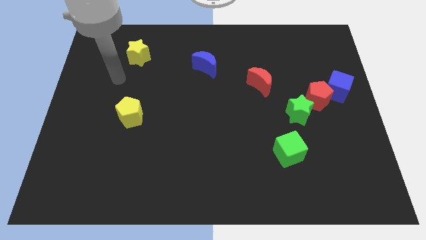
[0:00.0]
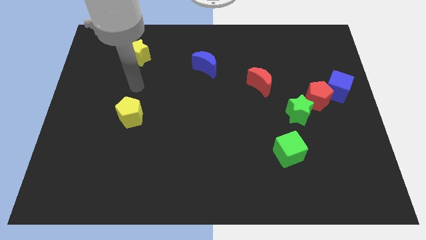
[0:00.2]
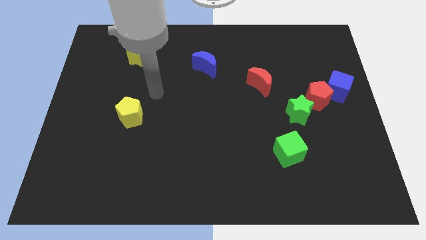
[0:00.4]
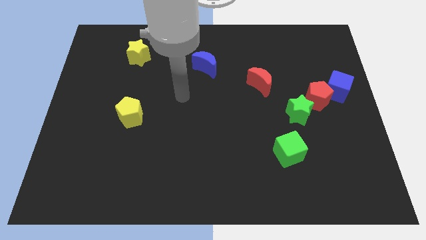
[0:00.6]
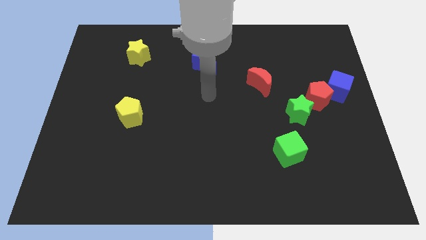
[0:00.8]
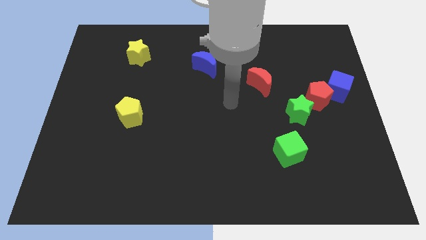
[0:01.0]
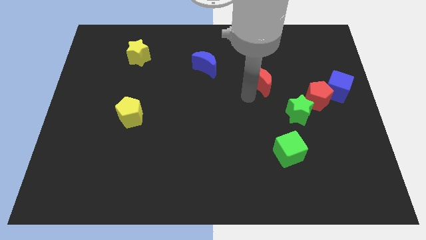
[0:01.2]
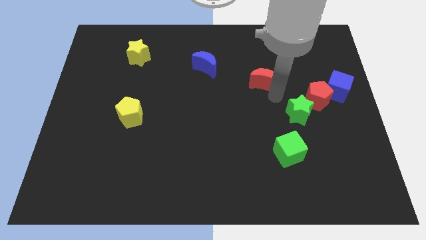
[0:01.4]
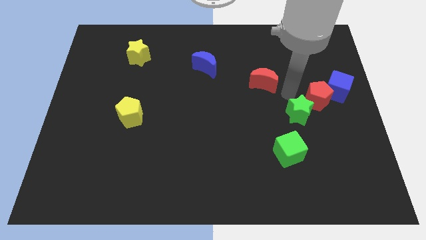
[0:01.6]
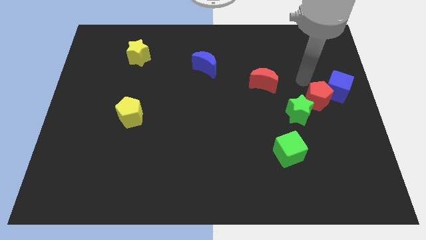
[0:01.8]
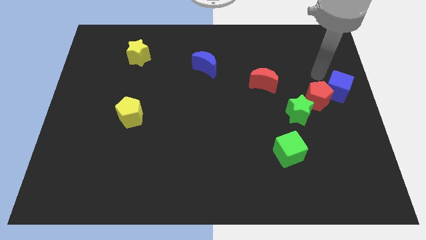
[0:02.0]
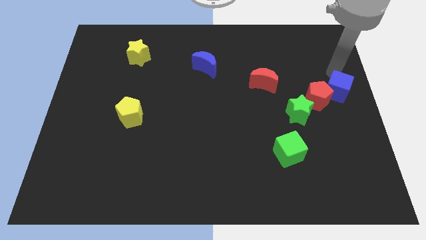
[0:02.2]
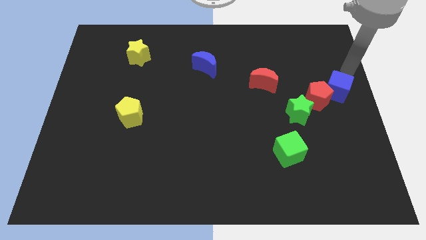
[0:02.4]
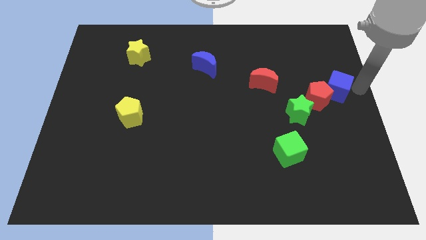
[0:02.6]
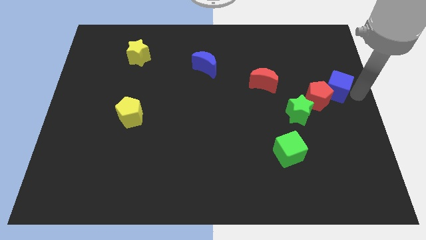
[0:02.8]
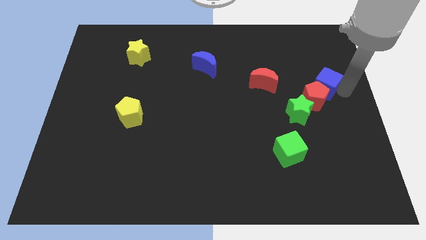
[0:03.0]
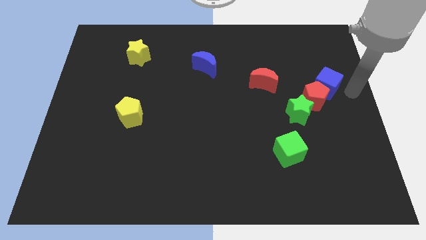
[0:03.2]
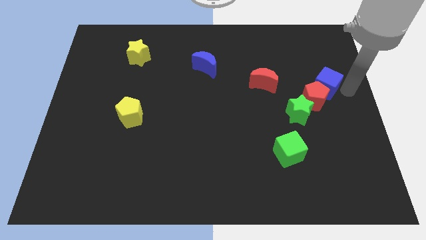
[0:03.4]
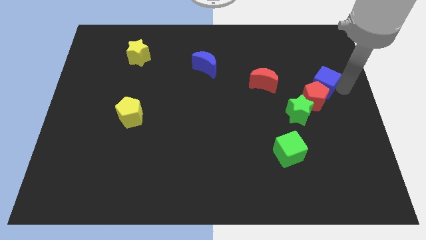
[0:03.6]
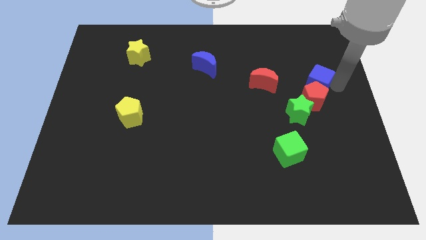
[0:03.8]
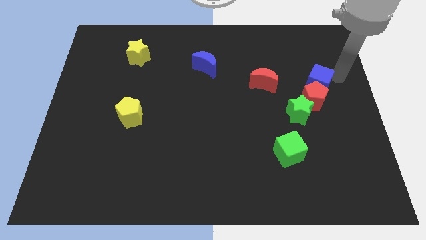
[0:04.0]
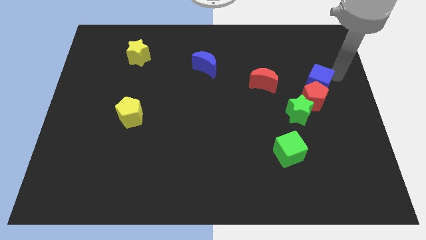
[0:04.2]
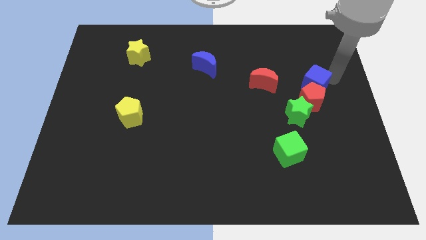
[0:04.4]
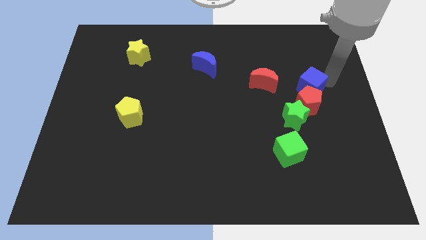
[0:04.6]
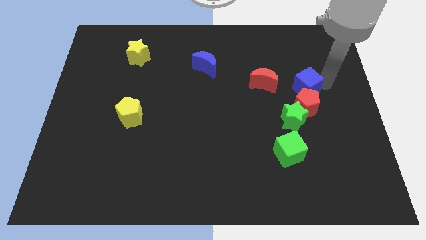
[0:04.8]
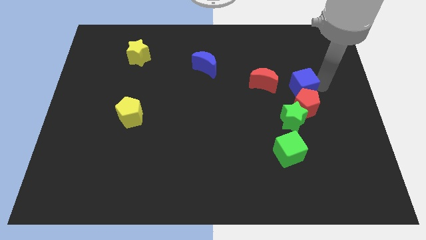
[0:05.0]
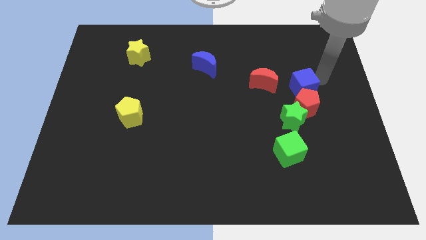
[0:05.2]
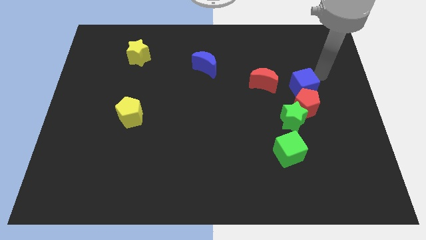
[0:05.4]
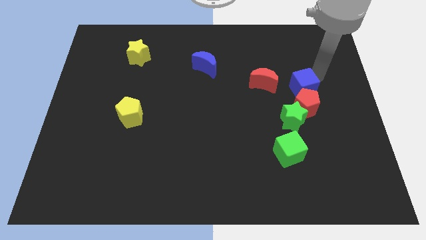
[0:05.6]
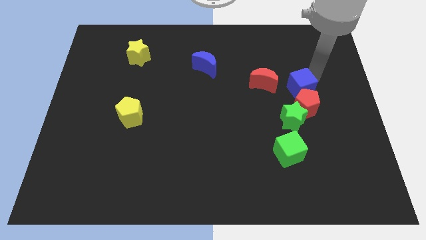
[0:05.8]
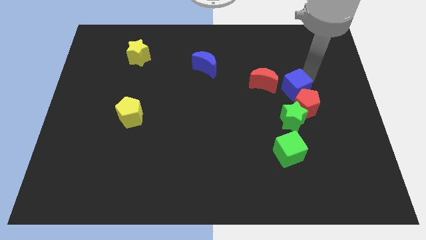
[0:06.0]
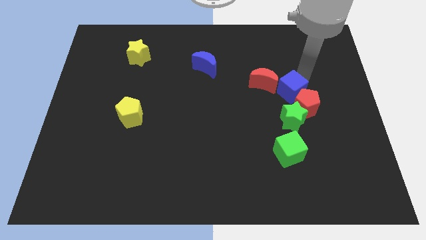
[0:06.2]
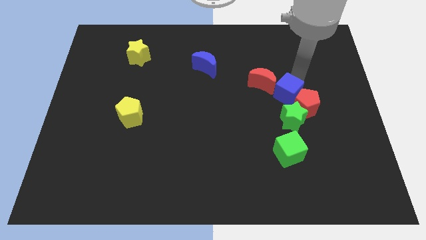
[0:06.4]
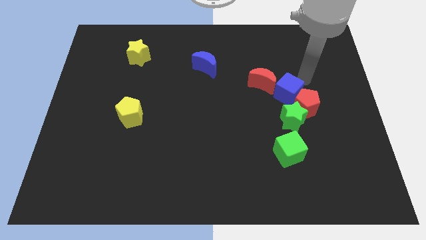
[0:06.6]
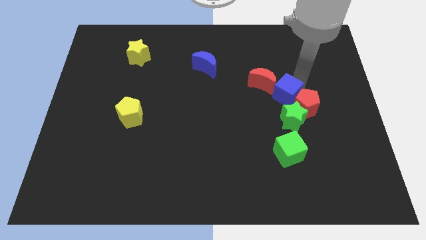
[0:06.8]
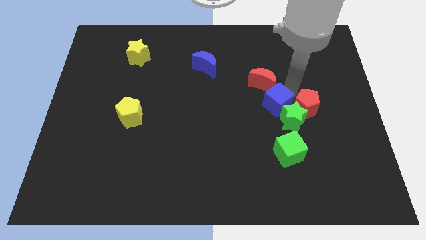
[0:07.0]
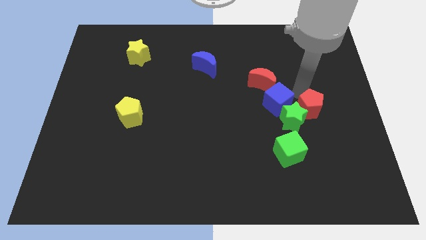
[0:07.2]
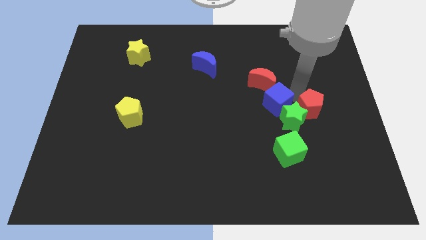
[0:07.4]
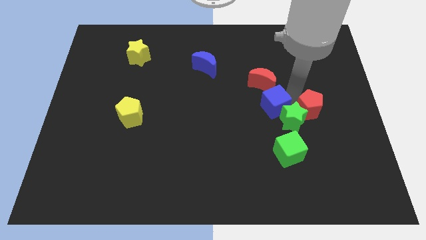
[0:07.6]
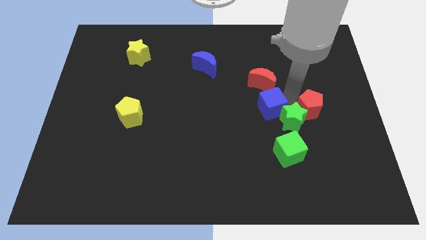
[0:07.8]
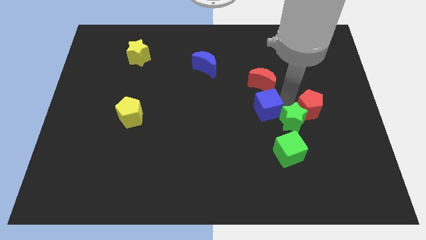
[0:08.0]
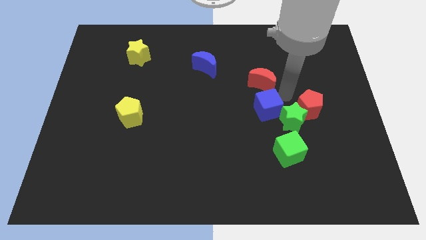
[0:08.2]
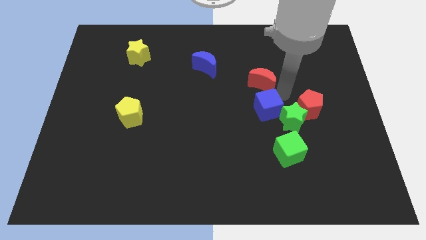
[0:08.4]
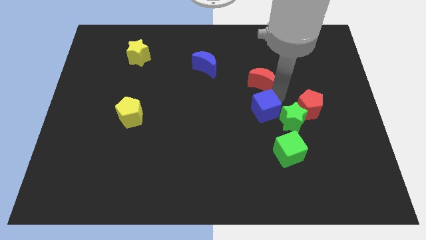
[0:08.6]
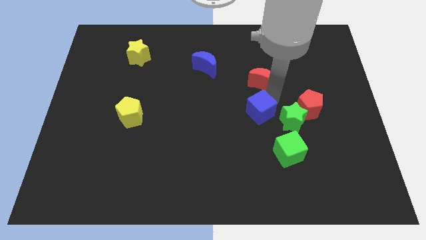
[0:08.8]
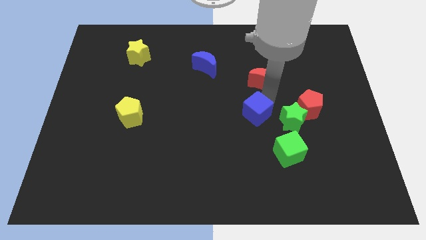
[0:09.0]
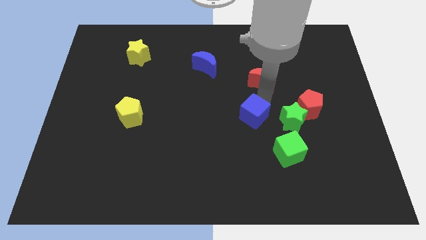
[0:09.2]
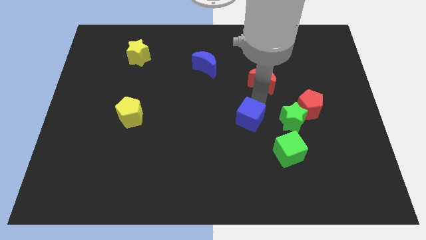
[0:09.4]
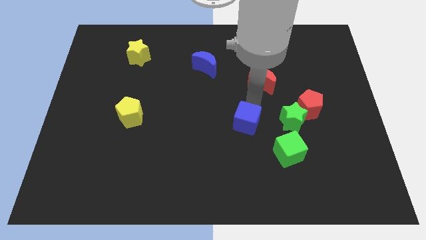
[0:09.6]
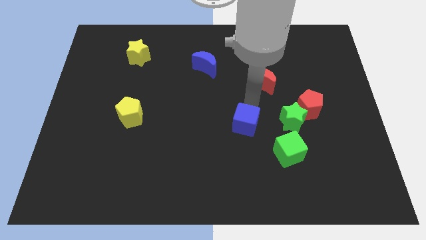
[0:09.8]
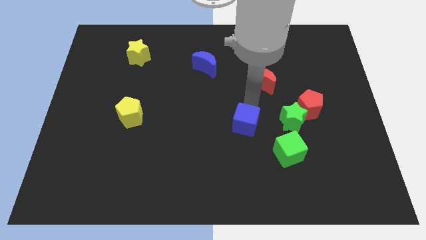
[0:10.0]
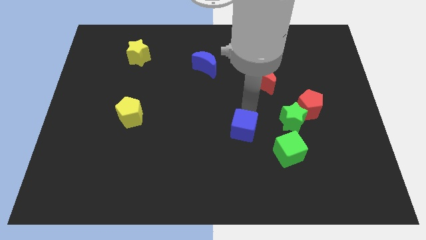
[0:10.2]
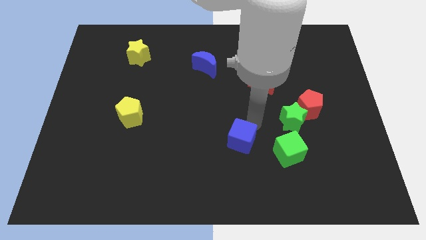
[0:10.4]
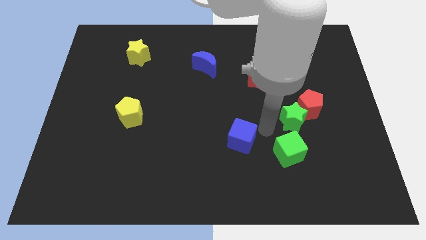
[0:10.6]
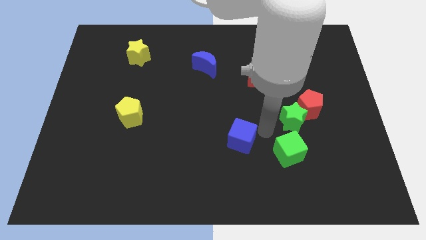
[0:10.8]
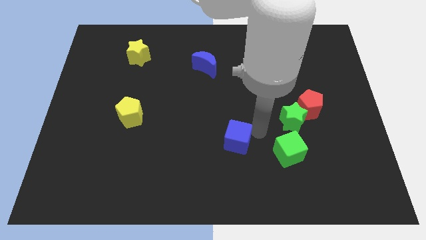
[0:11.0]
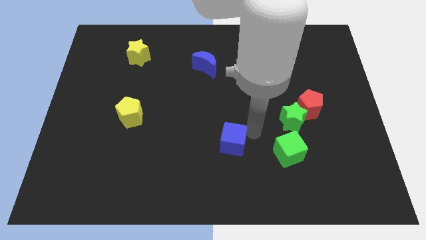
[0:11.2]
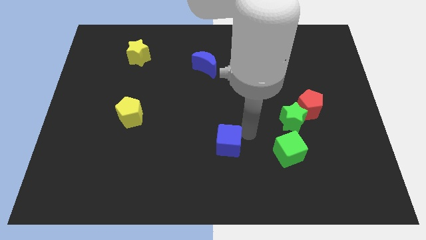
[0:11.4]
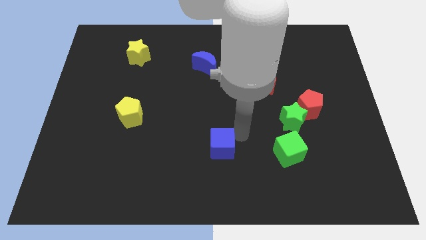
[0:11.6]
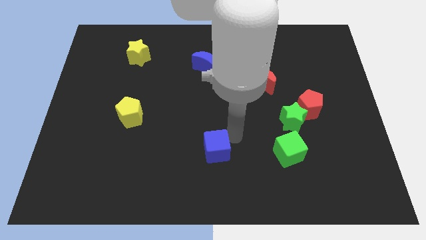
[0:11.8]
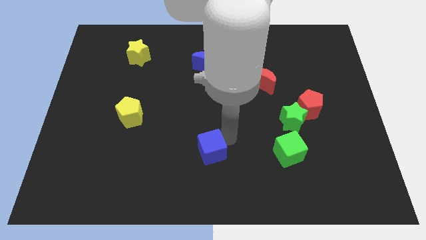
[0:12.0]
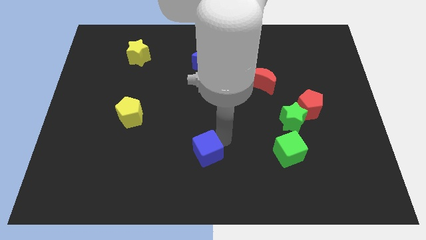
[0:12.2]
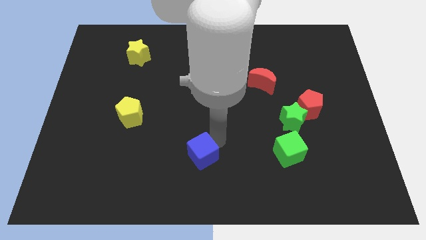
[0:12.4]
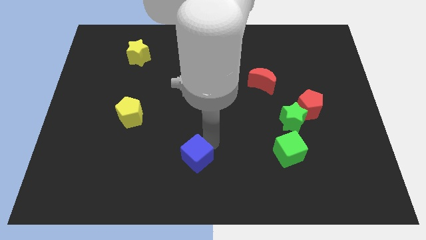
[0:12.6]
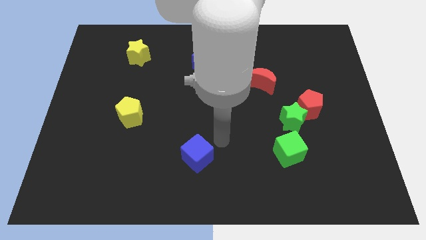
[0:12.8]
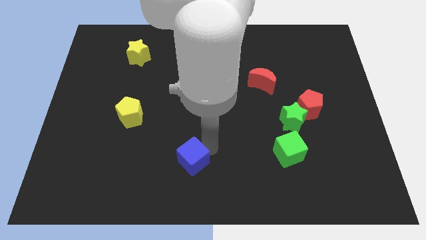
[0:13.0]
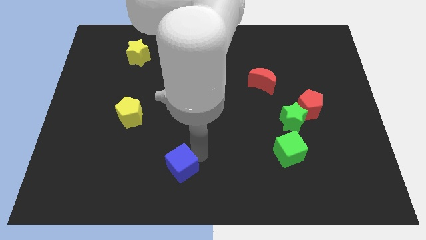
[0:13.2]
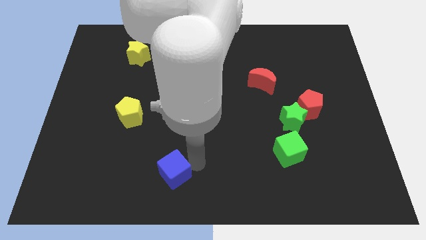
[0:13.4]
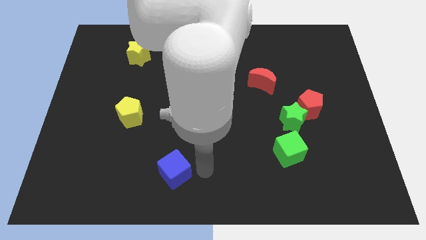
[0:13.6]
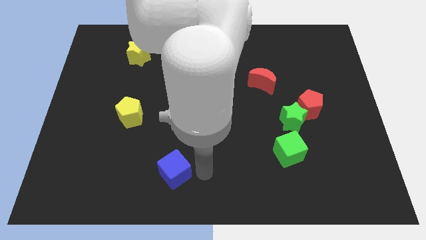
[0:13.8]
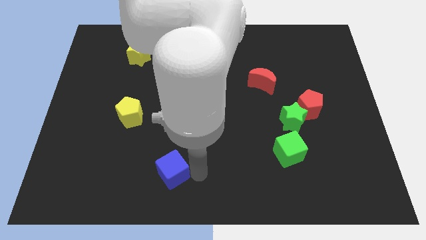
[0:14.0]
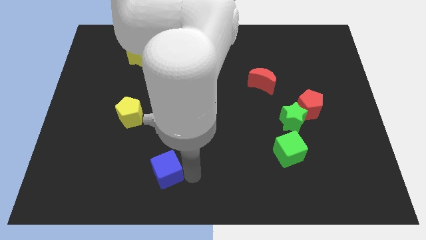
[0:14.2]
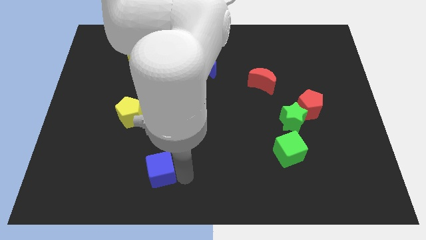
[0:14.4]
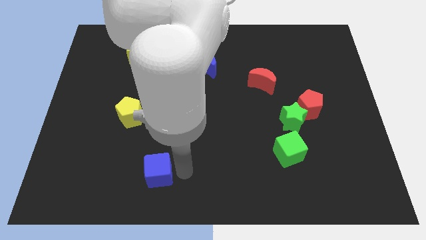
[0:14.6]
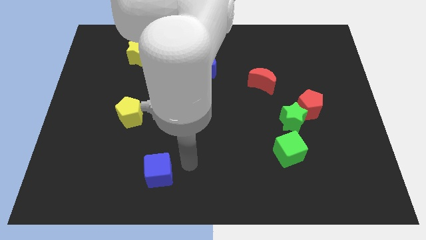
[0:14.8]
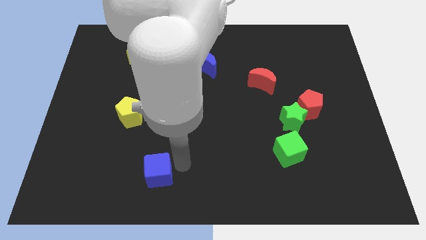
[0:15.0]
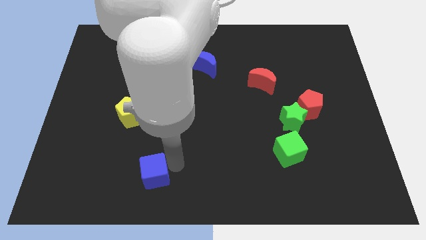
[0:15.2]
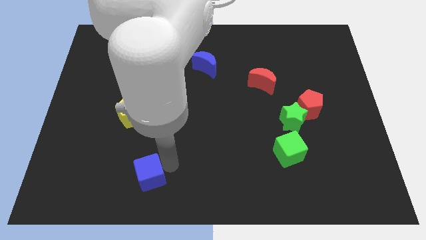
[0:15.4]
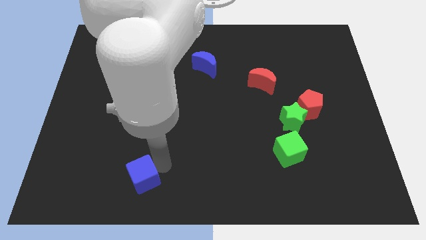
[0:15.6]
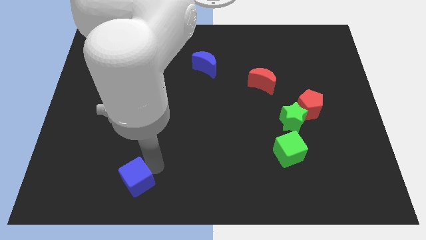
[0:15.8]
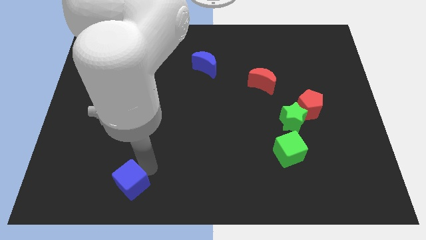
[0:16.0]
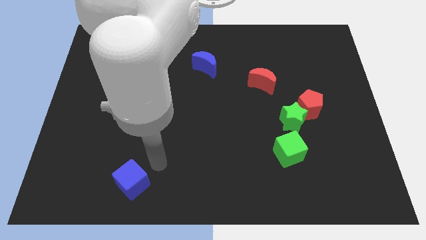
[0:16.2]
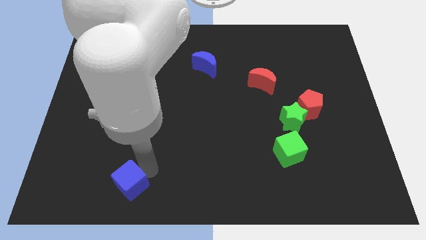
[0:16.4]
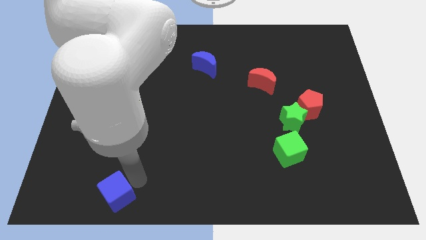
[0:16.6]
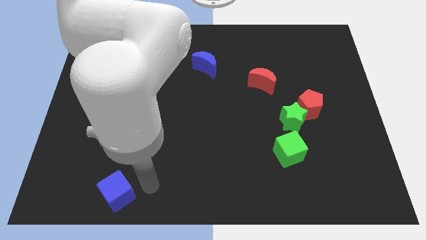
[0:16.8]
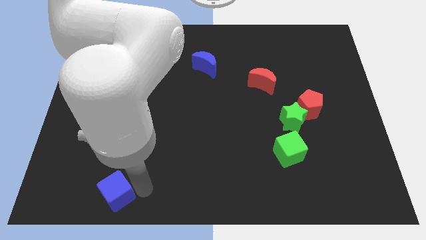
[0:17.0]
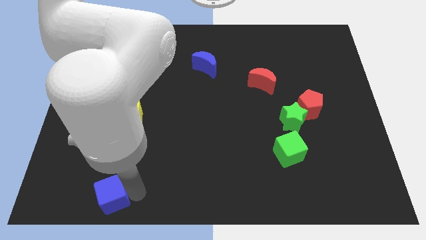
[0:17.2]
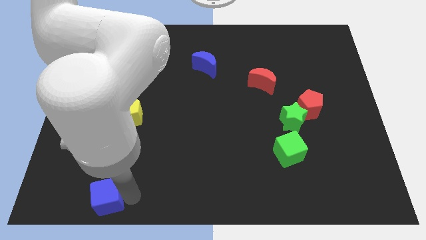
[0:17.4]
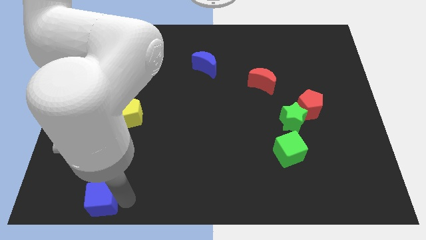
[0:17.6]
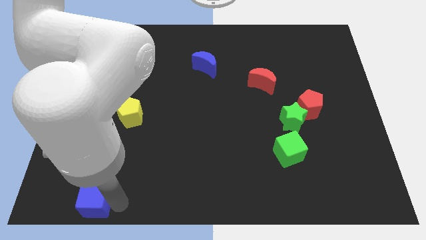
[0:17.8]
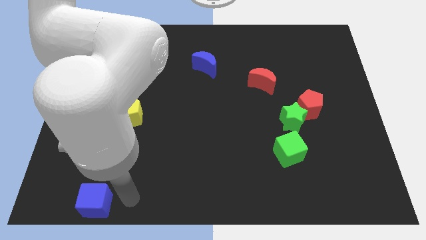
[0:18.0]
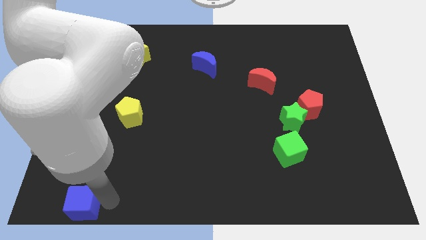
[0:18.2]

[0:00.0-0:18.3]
put the blue cube to the bottom left corner
